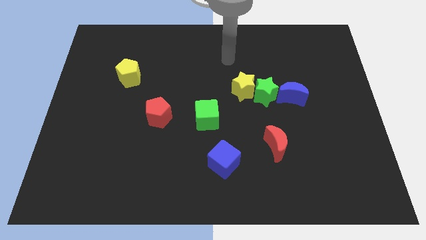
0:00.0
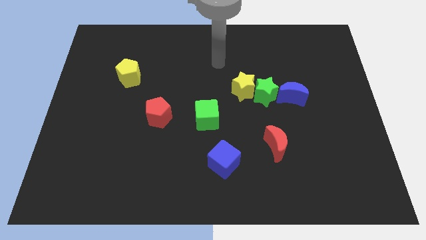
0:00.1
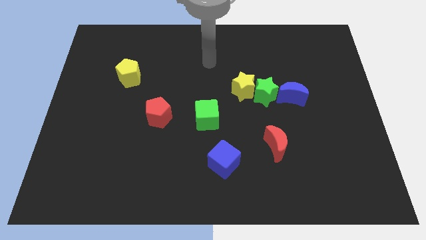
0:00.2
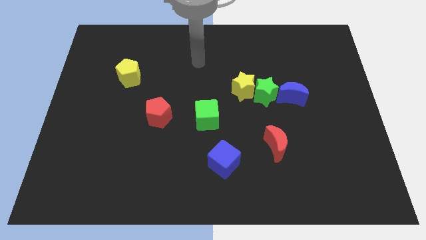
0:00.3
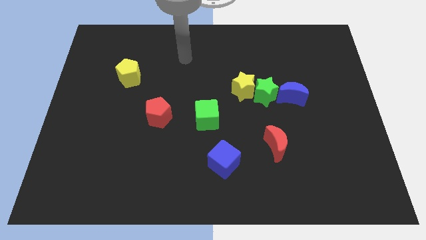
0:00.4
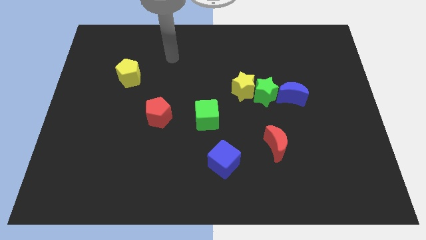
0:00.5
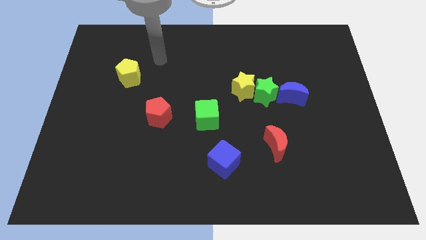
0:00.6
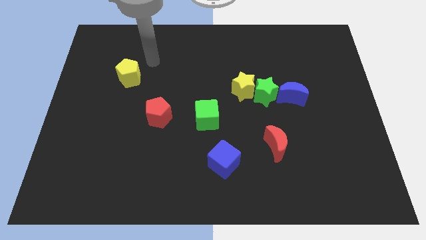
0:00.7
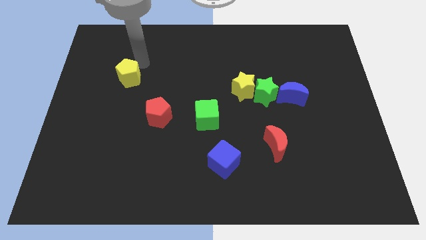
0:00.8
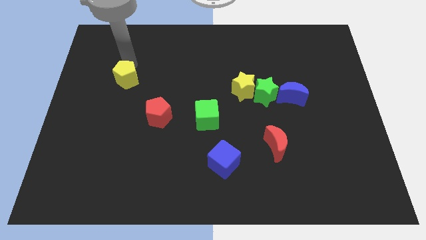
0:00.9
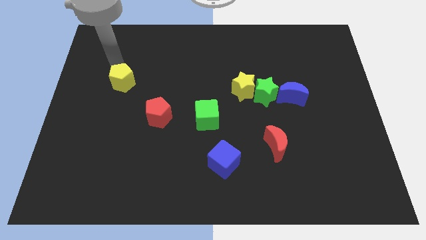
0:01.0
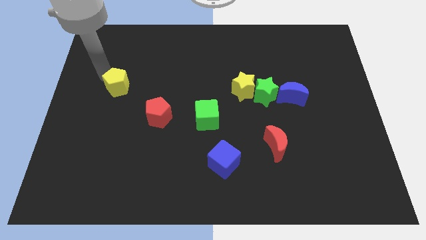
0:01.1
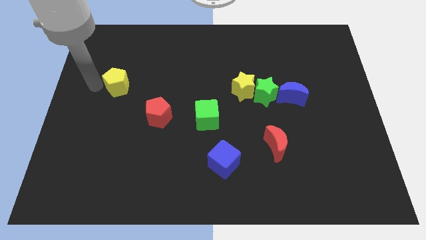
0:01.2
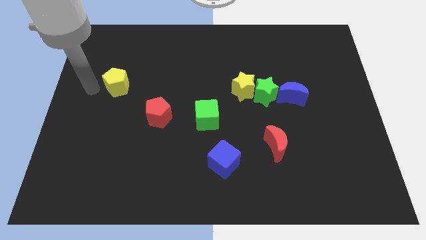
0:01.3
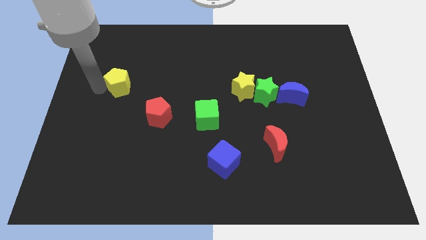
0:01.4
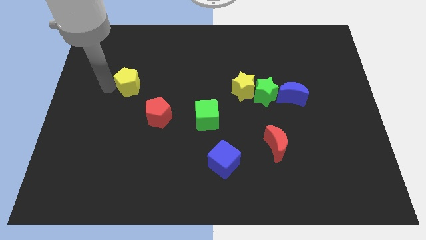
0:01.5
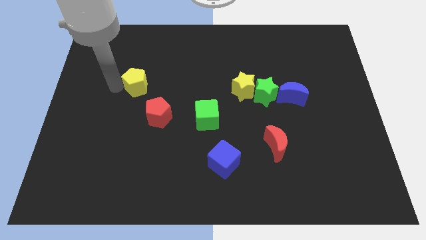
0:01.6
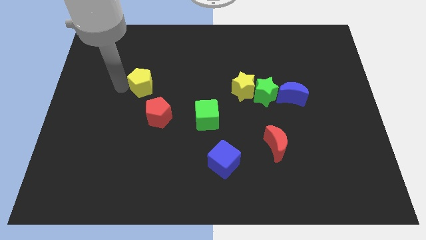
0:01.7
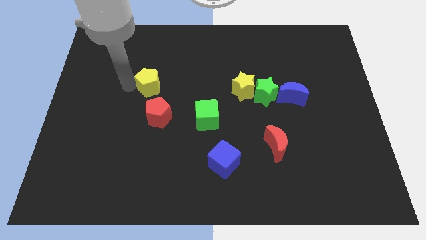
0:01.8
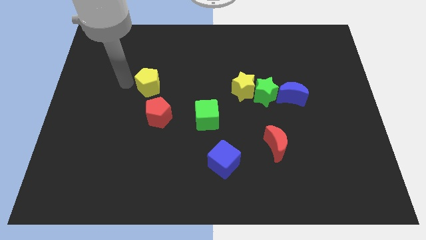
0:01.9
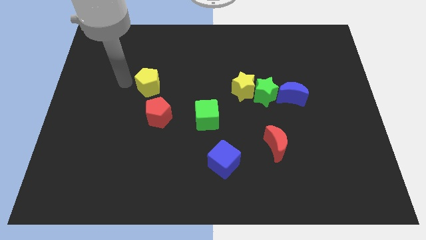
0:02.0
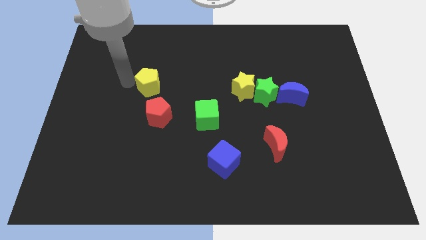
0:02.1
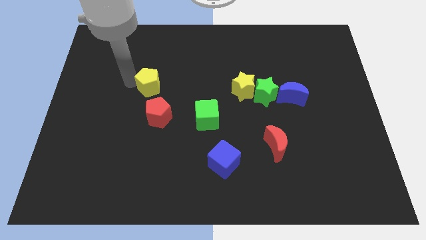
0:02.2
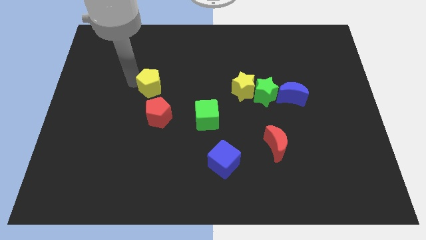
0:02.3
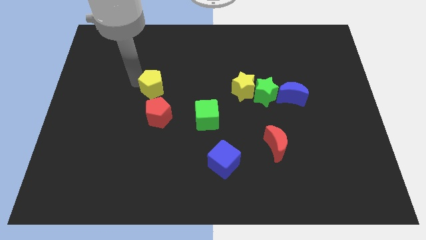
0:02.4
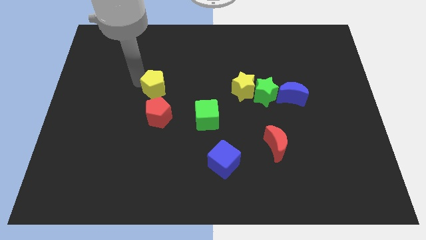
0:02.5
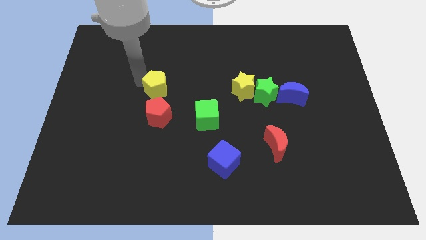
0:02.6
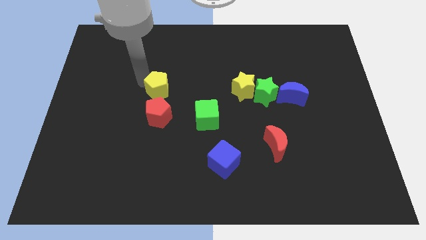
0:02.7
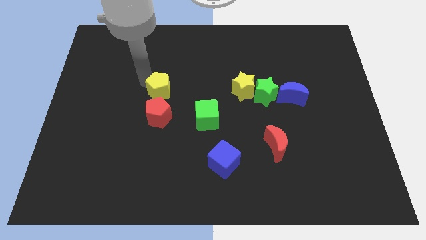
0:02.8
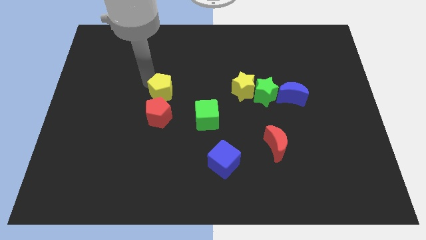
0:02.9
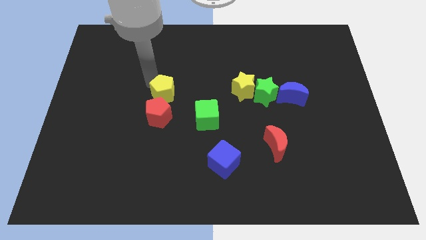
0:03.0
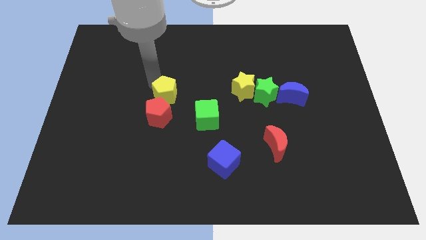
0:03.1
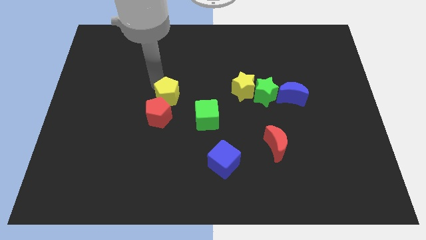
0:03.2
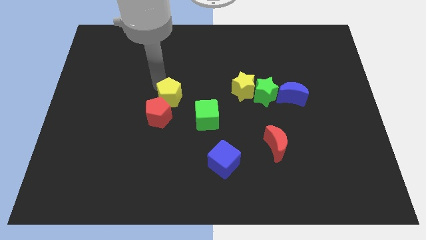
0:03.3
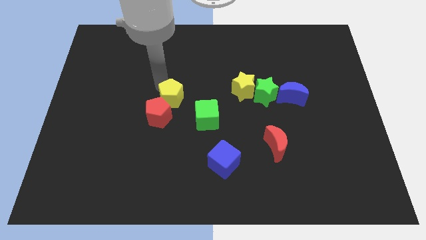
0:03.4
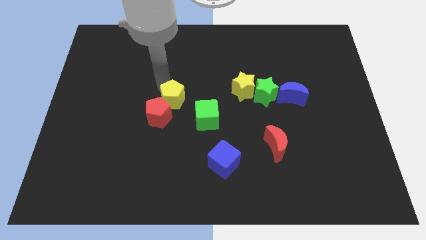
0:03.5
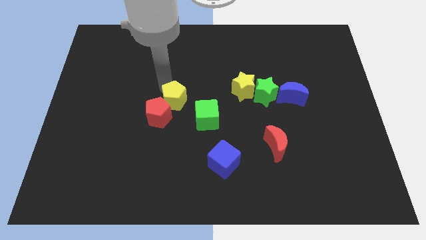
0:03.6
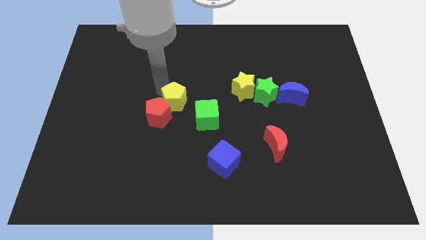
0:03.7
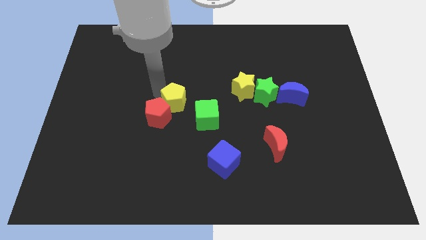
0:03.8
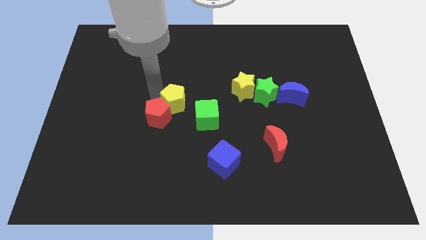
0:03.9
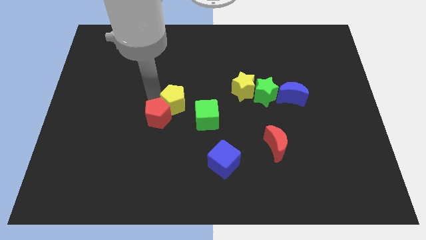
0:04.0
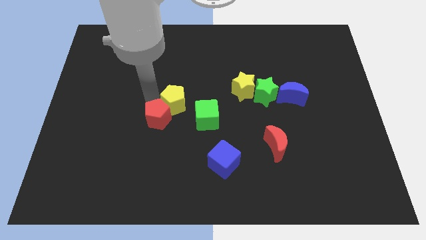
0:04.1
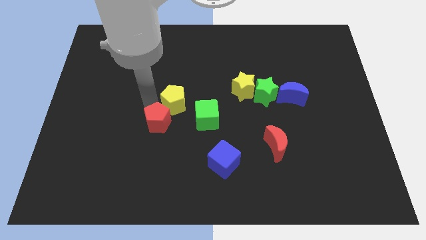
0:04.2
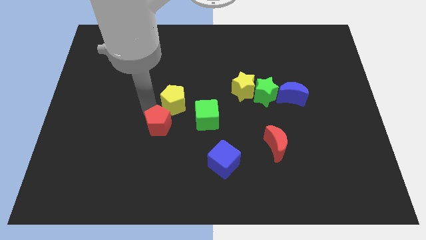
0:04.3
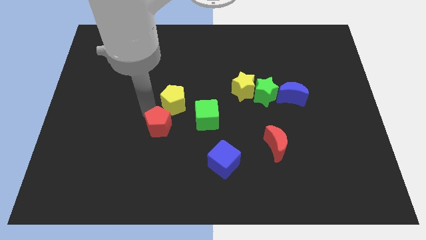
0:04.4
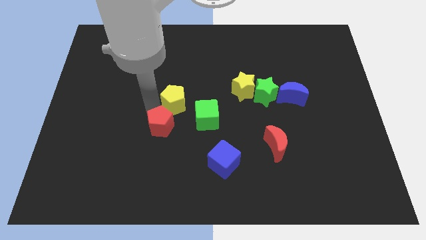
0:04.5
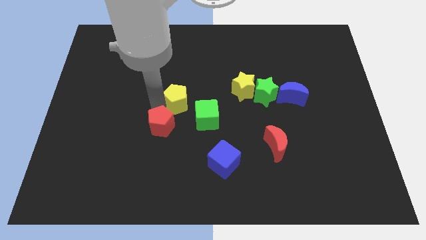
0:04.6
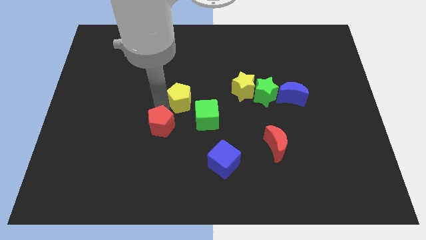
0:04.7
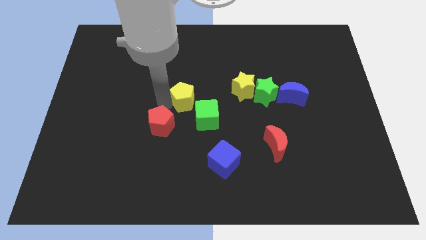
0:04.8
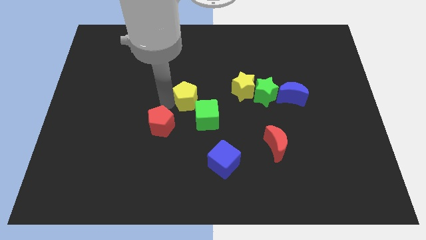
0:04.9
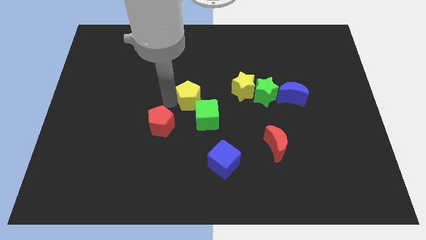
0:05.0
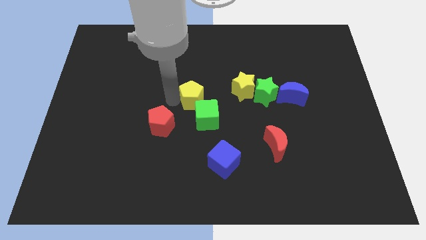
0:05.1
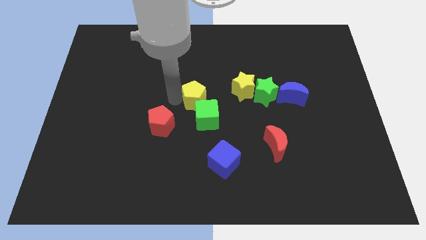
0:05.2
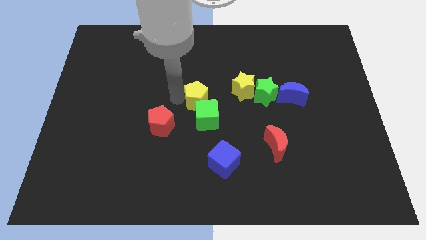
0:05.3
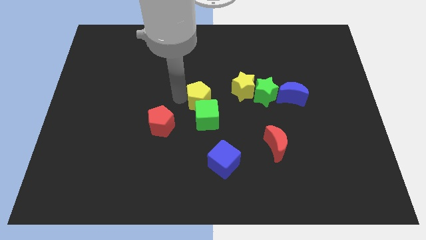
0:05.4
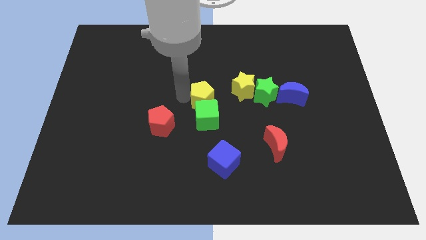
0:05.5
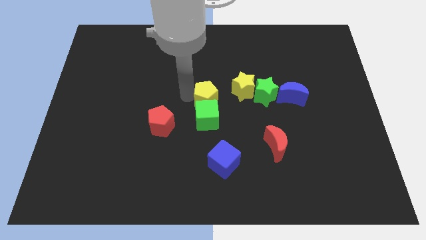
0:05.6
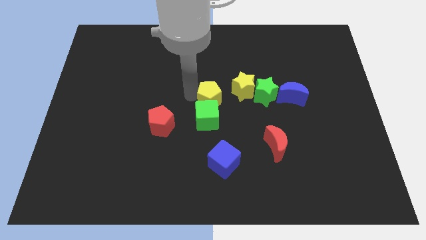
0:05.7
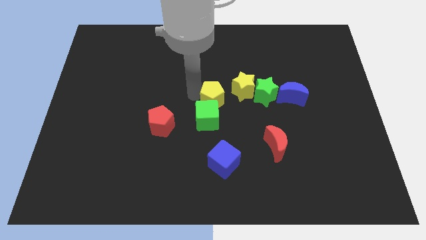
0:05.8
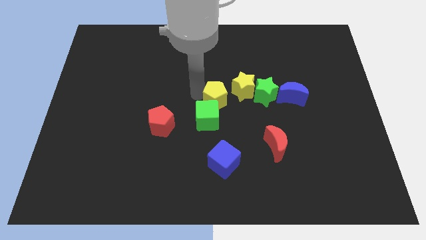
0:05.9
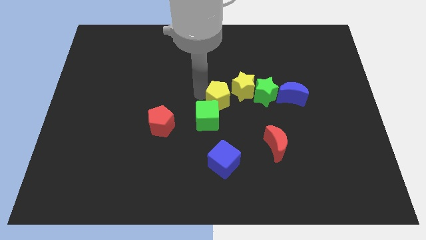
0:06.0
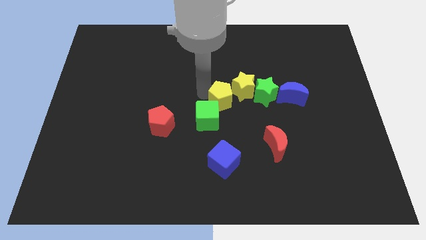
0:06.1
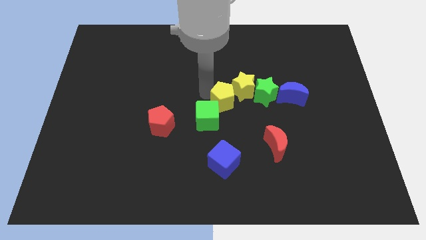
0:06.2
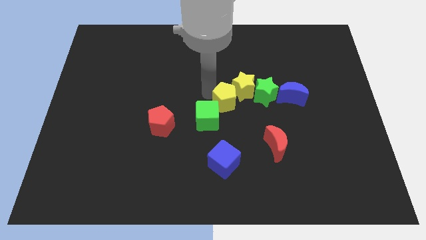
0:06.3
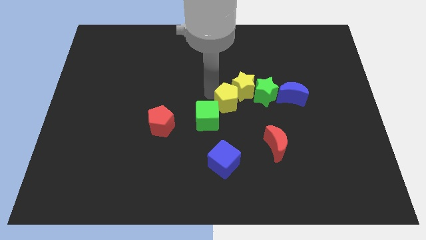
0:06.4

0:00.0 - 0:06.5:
slide the yellow pentagon just right of the green cube

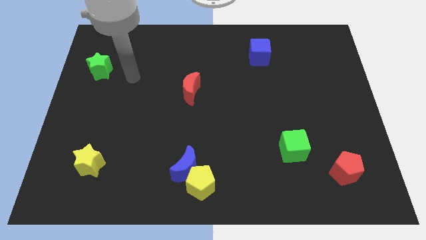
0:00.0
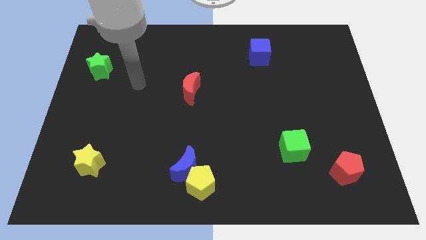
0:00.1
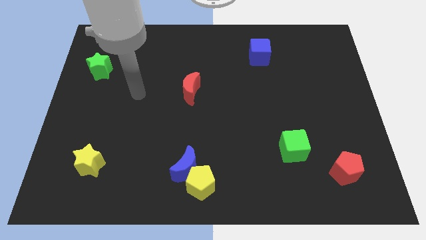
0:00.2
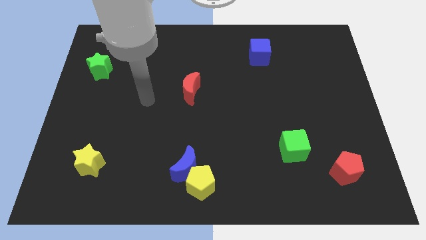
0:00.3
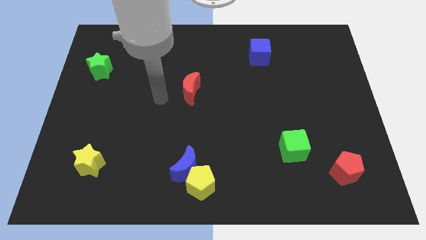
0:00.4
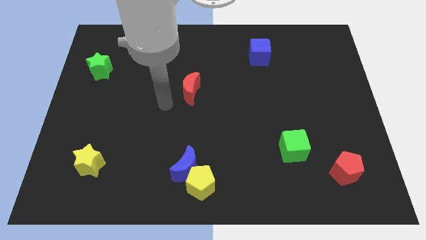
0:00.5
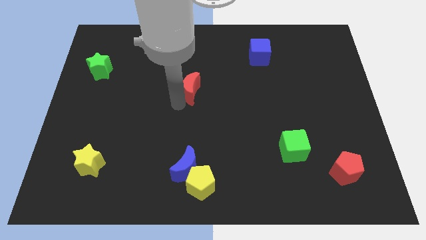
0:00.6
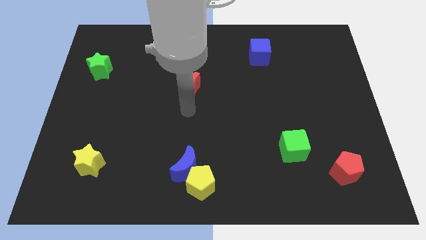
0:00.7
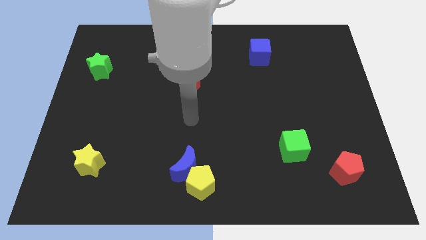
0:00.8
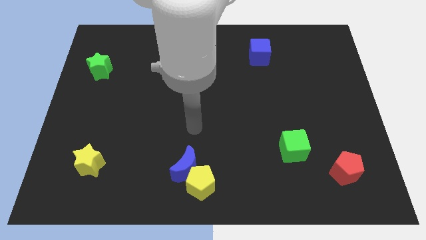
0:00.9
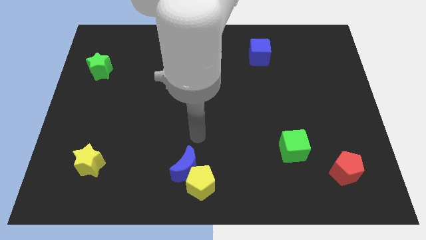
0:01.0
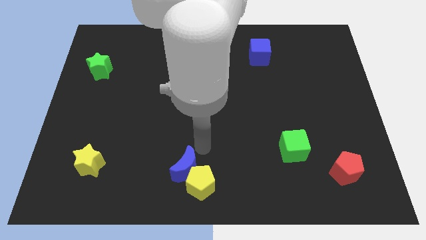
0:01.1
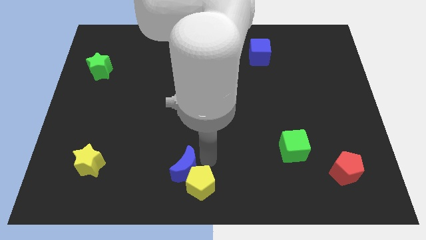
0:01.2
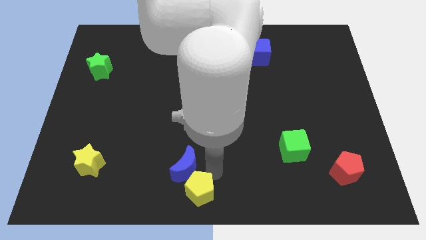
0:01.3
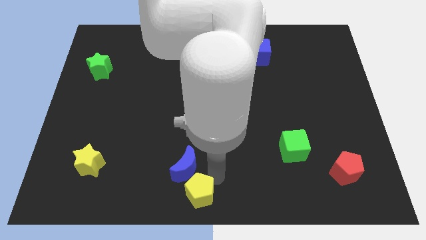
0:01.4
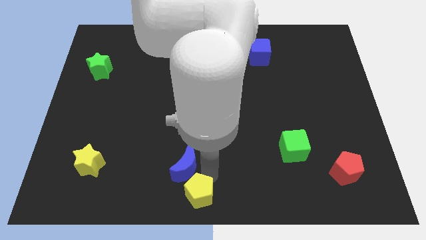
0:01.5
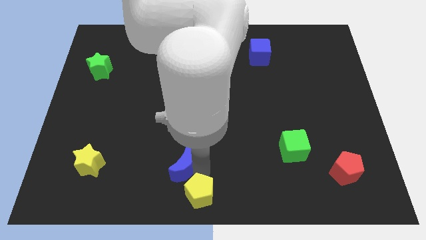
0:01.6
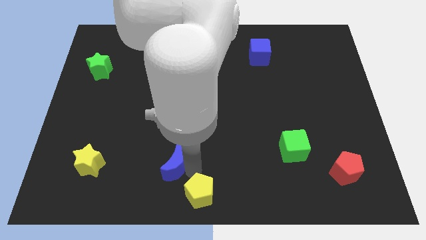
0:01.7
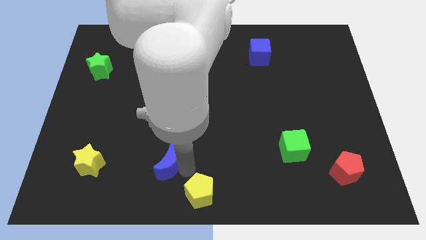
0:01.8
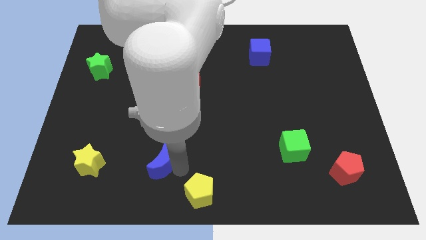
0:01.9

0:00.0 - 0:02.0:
put the blue moon to the right of the yellow star
